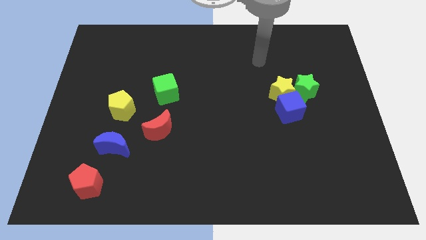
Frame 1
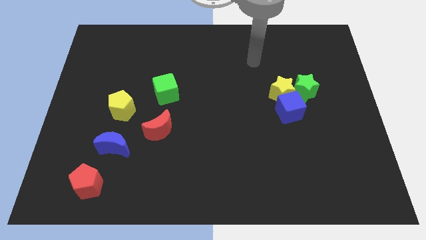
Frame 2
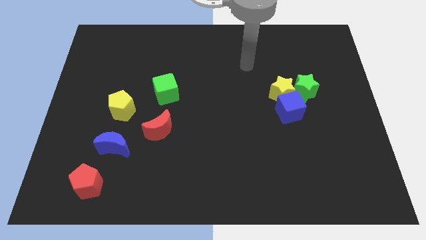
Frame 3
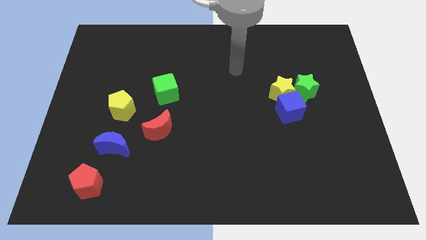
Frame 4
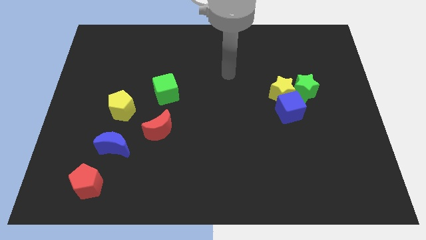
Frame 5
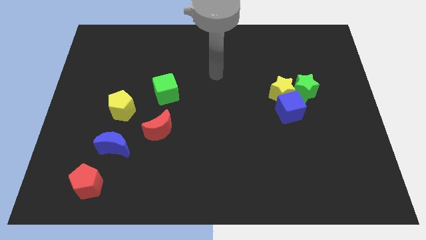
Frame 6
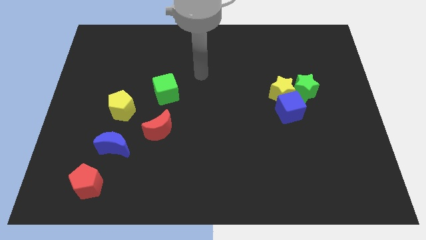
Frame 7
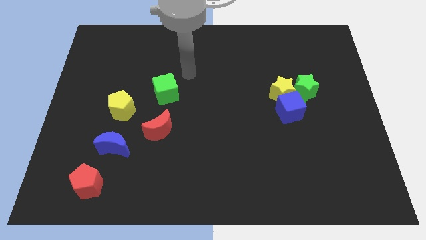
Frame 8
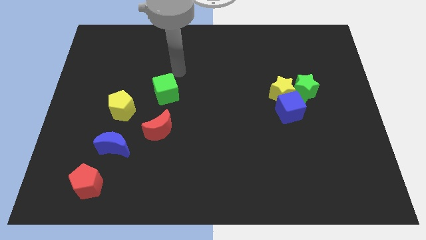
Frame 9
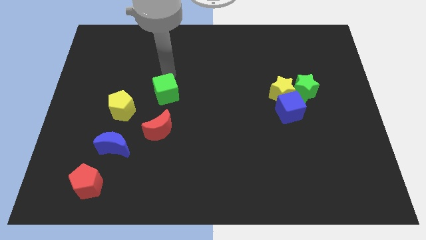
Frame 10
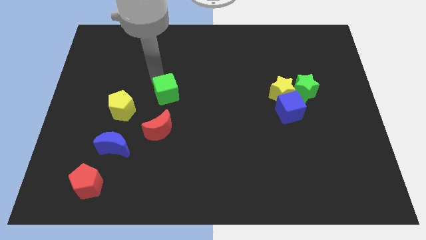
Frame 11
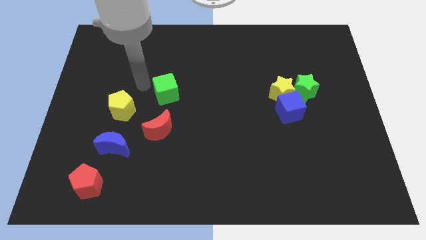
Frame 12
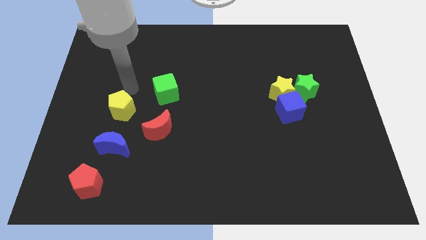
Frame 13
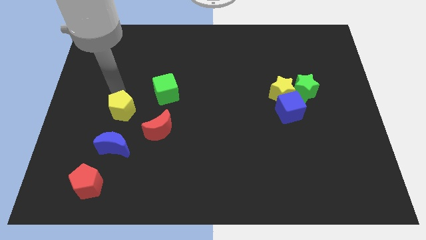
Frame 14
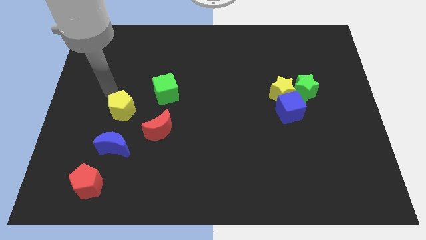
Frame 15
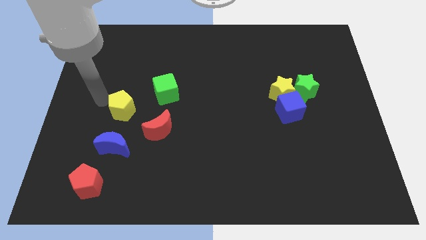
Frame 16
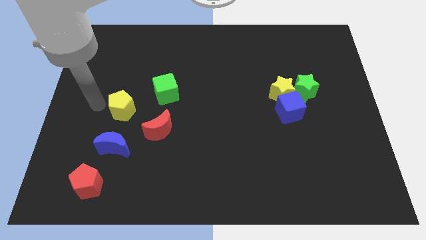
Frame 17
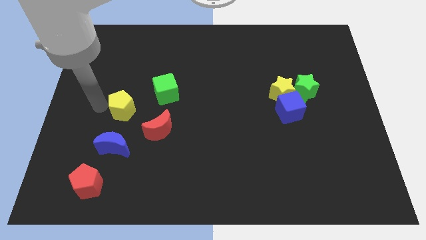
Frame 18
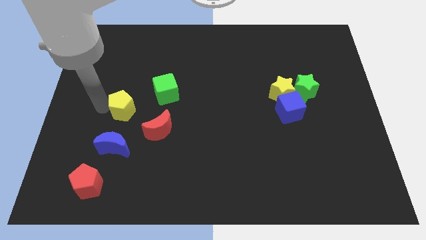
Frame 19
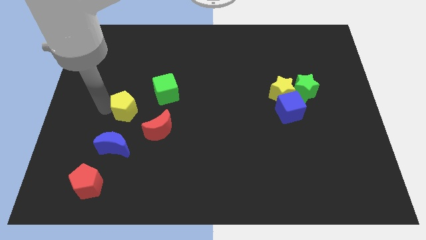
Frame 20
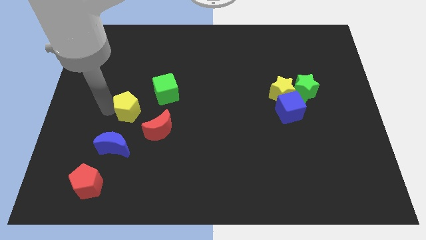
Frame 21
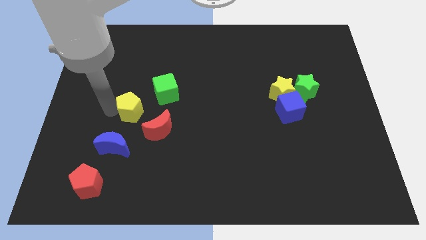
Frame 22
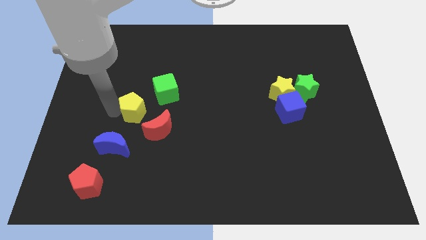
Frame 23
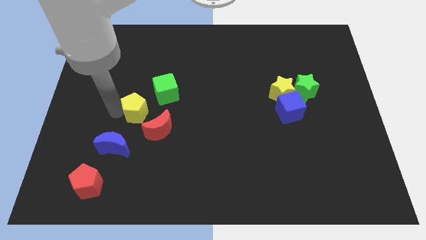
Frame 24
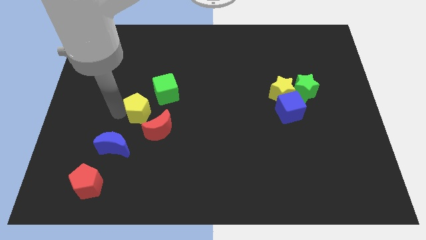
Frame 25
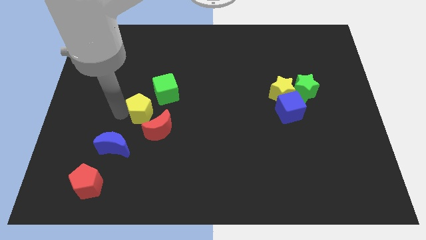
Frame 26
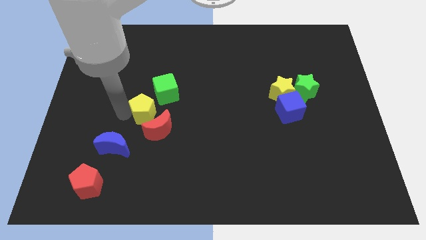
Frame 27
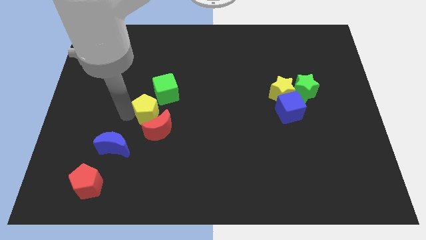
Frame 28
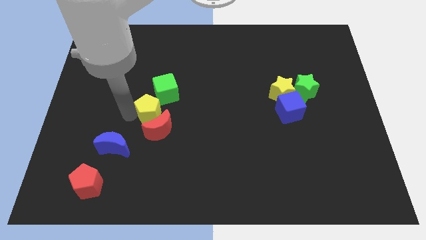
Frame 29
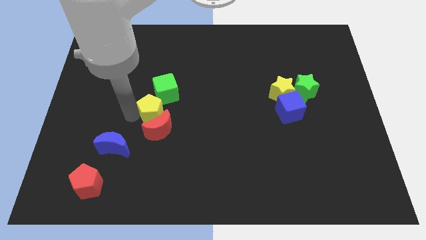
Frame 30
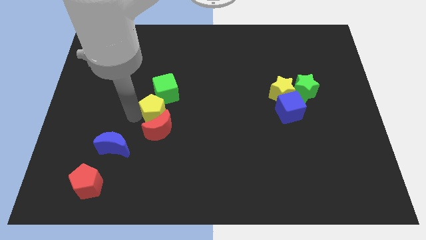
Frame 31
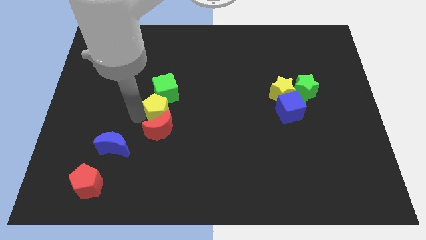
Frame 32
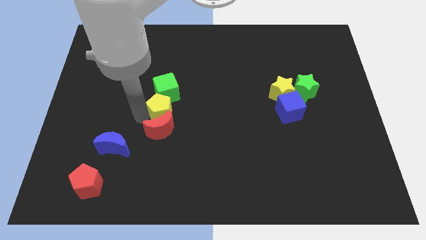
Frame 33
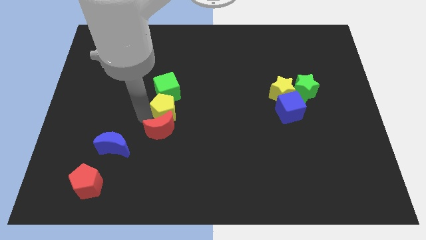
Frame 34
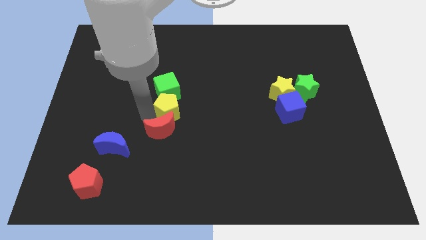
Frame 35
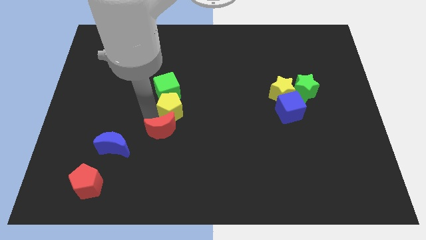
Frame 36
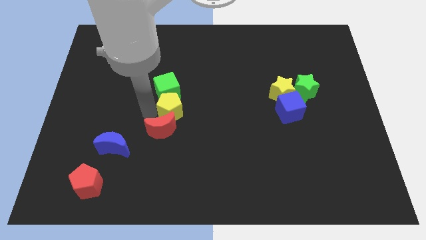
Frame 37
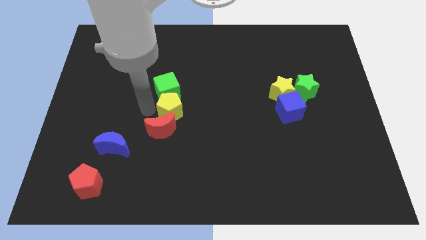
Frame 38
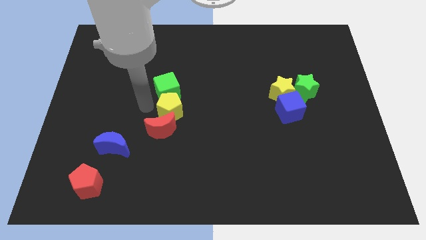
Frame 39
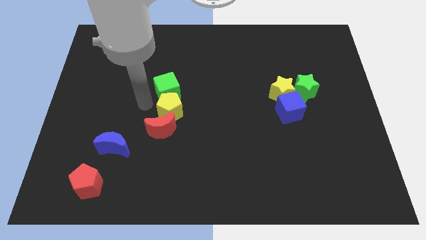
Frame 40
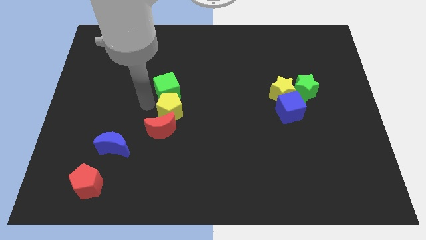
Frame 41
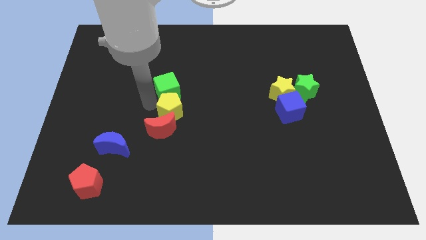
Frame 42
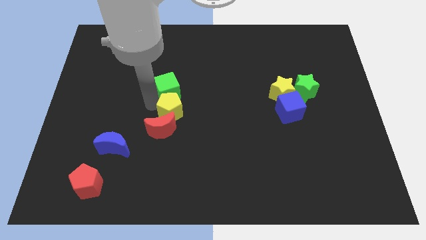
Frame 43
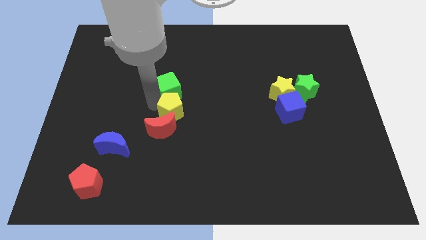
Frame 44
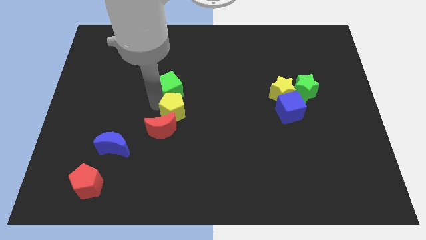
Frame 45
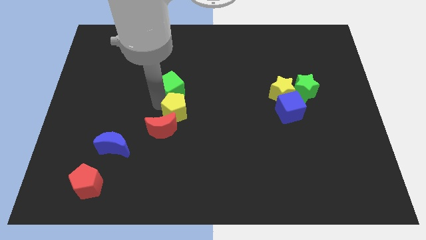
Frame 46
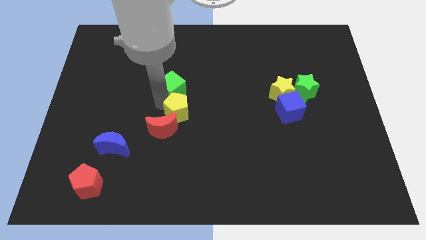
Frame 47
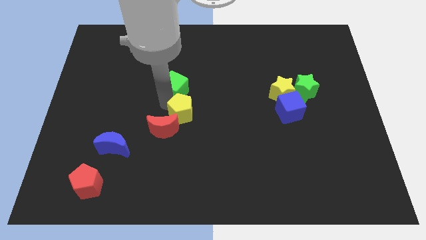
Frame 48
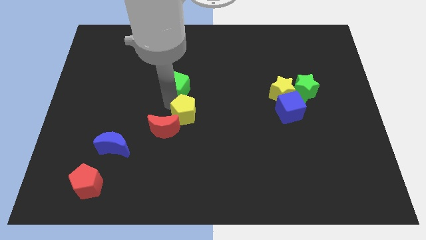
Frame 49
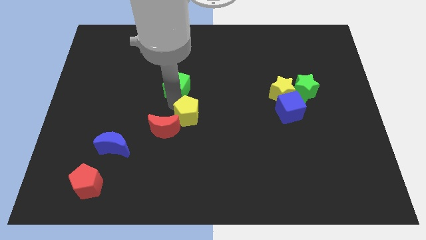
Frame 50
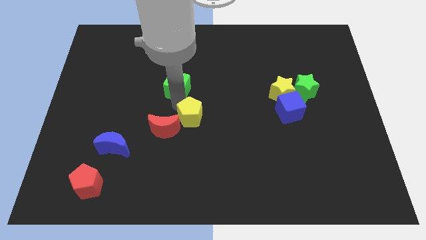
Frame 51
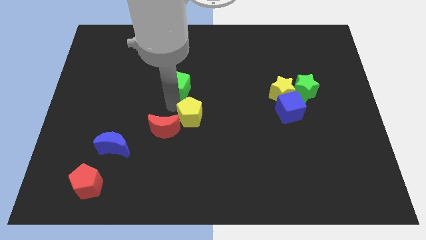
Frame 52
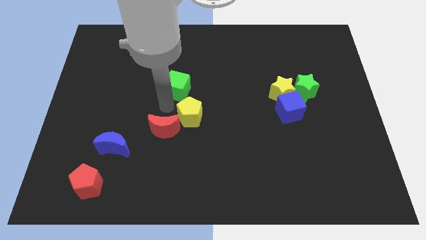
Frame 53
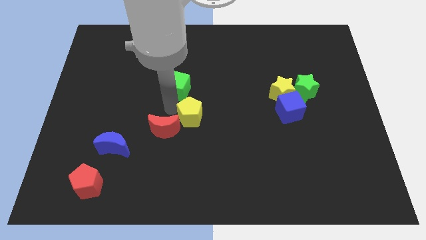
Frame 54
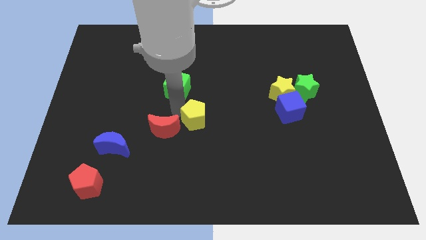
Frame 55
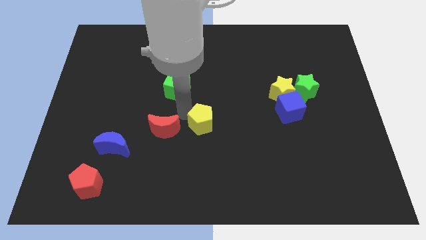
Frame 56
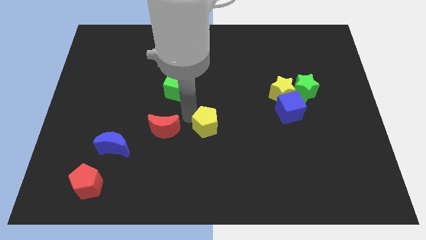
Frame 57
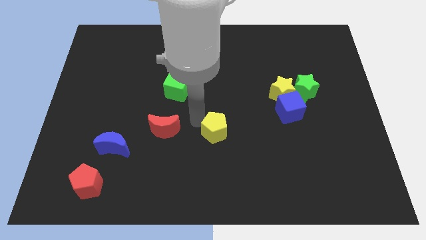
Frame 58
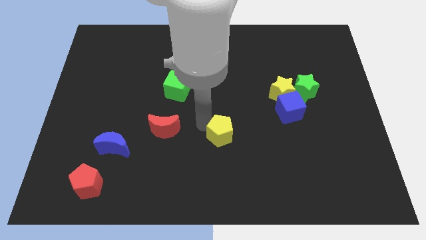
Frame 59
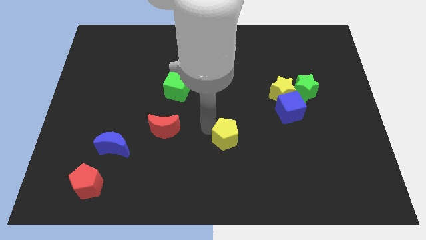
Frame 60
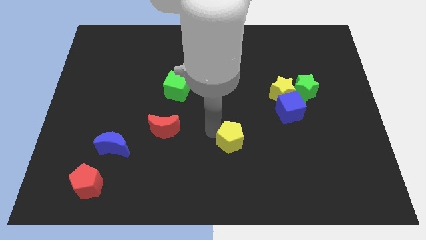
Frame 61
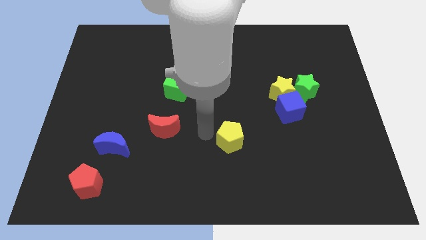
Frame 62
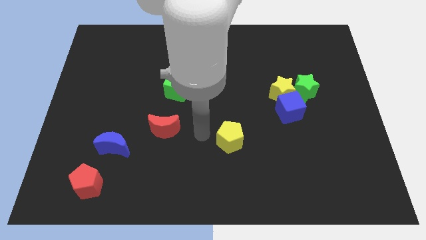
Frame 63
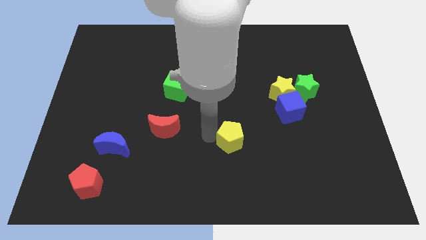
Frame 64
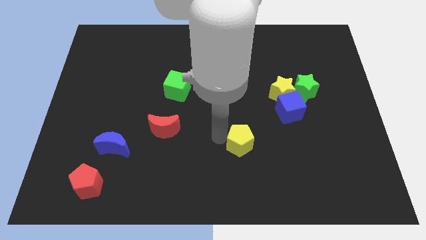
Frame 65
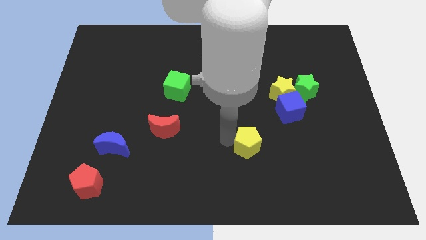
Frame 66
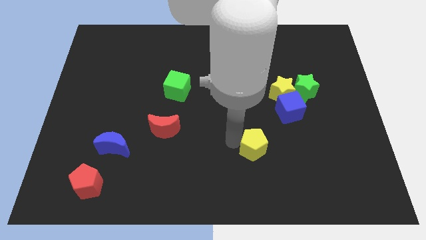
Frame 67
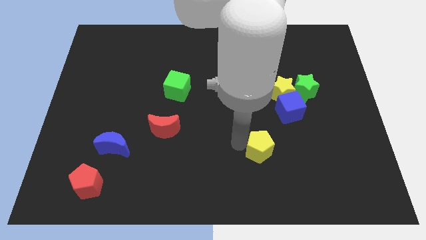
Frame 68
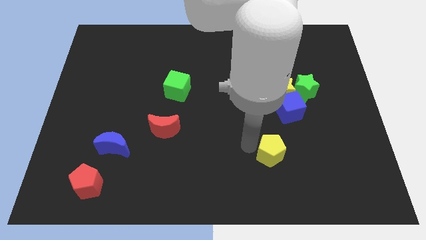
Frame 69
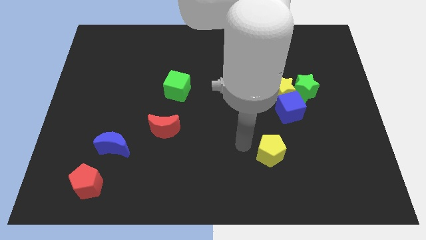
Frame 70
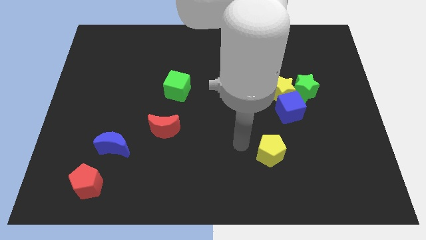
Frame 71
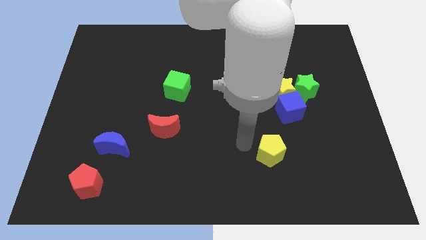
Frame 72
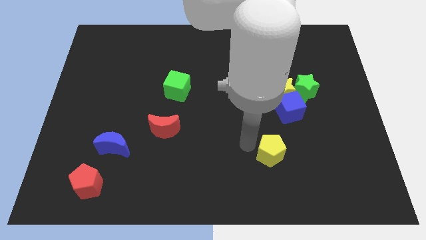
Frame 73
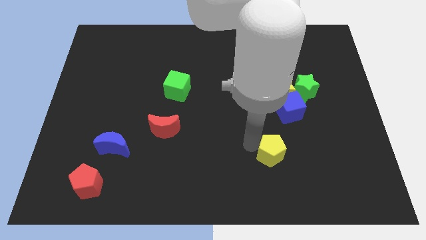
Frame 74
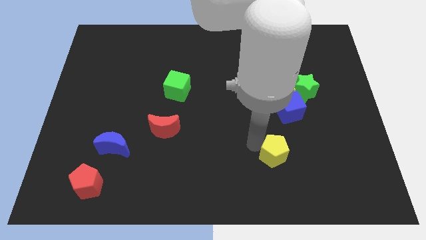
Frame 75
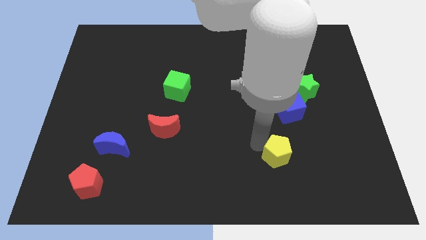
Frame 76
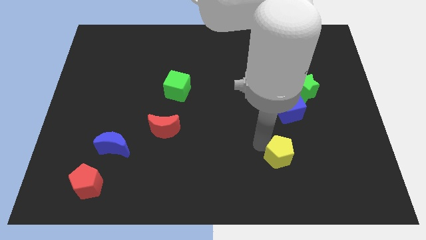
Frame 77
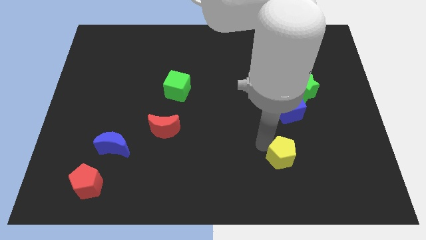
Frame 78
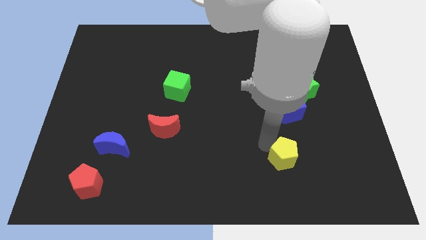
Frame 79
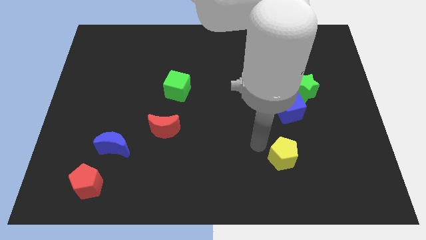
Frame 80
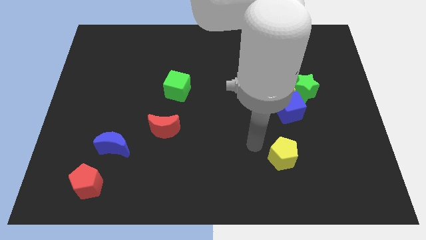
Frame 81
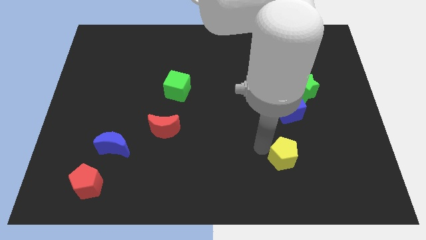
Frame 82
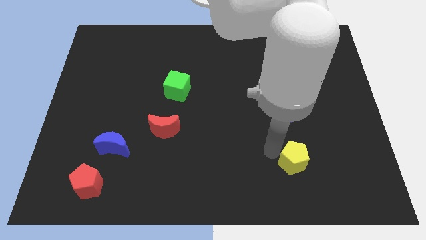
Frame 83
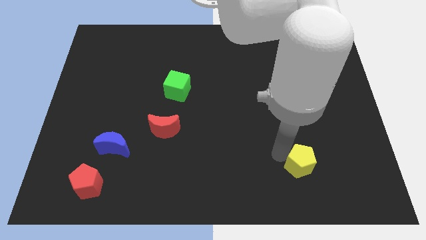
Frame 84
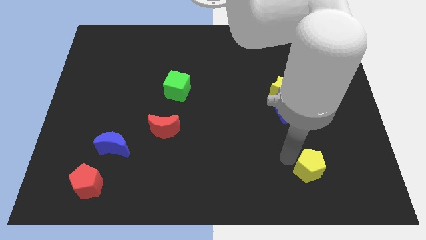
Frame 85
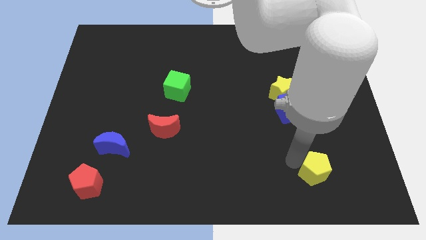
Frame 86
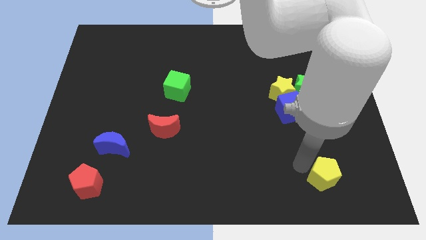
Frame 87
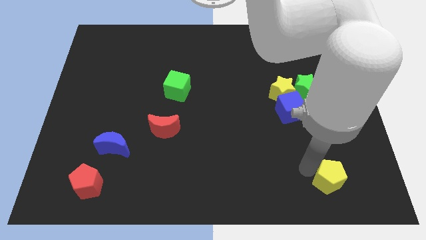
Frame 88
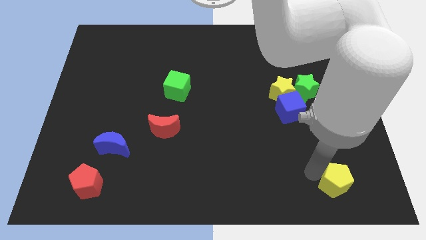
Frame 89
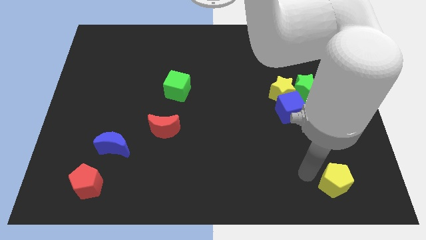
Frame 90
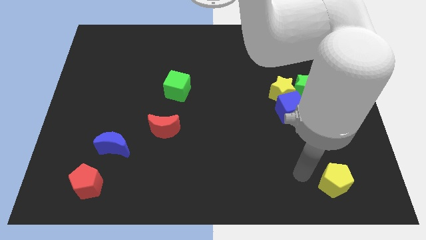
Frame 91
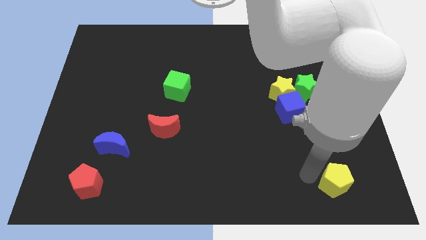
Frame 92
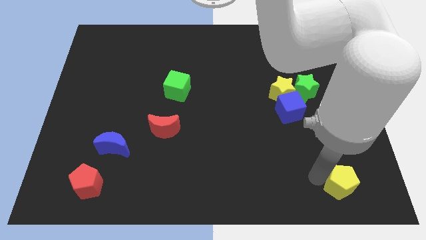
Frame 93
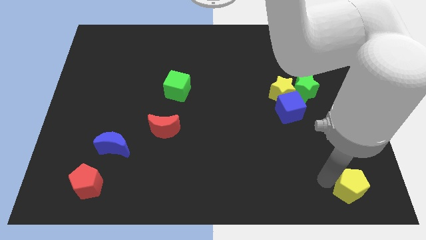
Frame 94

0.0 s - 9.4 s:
put the yellow pentagon to the bottom right of the board
